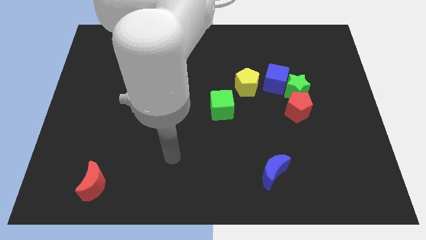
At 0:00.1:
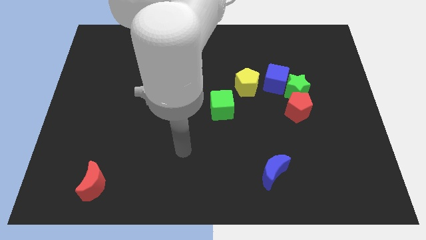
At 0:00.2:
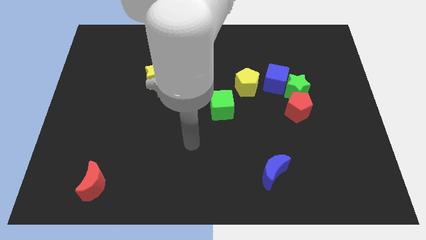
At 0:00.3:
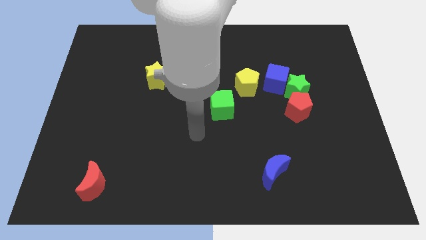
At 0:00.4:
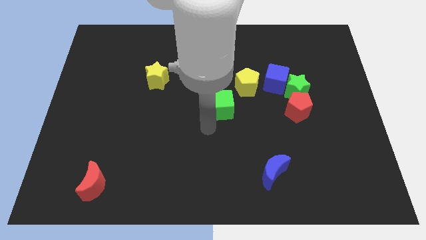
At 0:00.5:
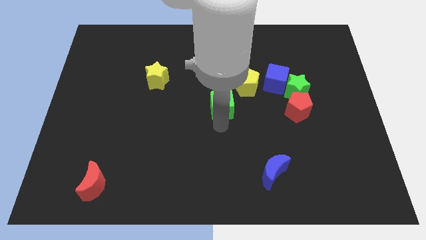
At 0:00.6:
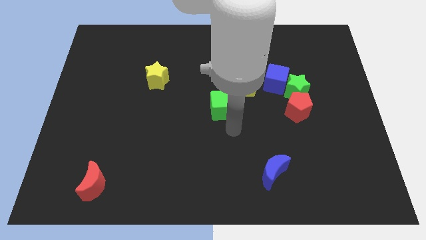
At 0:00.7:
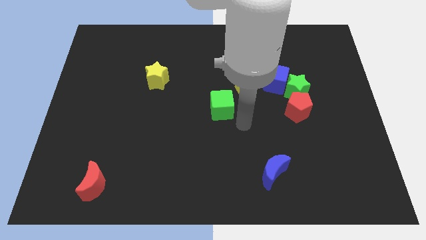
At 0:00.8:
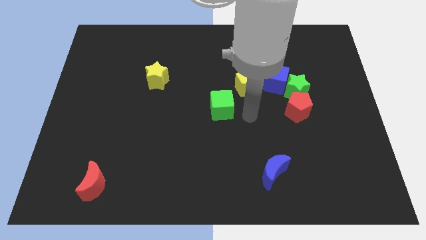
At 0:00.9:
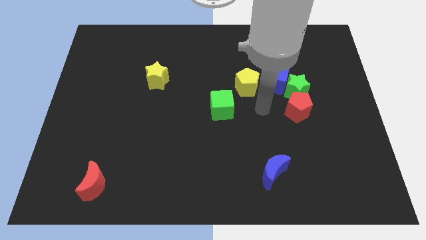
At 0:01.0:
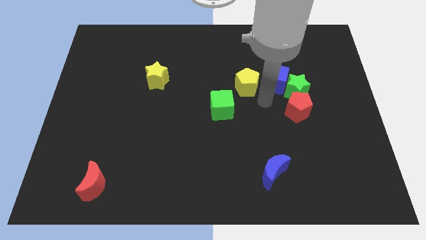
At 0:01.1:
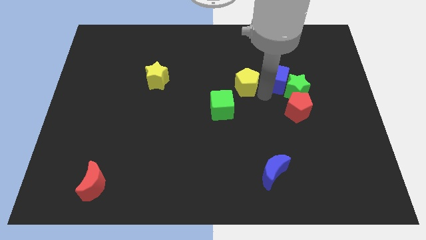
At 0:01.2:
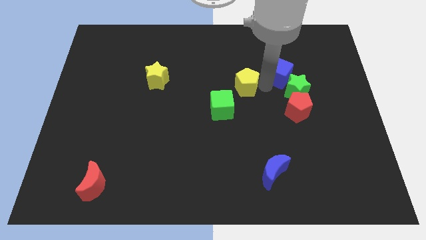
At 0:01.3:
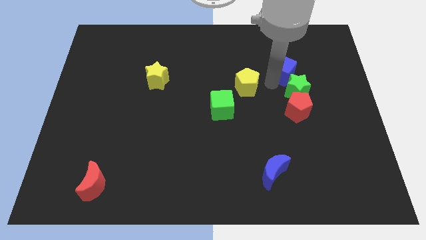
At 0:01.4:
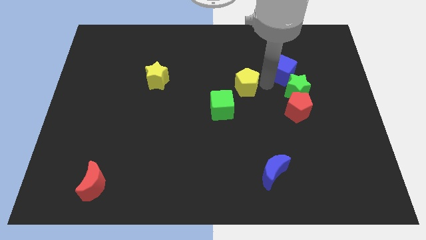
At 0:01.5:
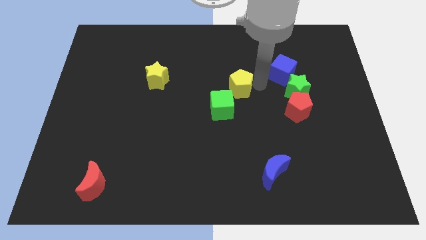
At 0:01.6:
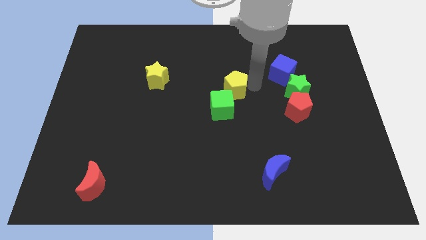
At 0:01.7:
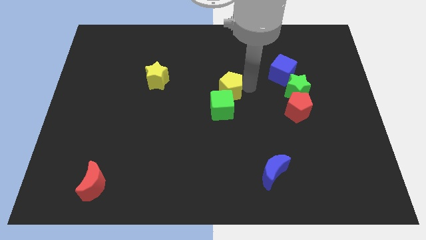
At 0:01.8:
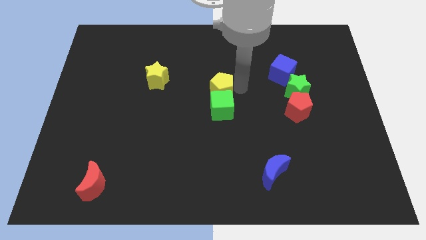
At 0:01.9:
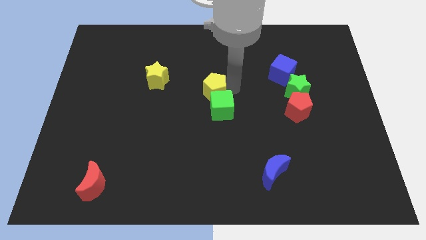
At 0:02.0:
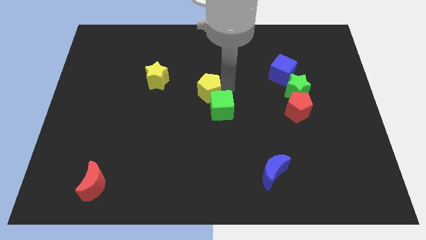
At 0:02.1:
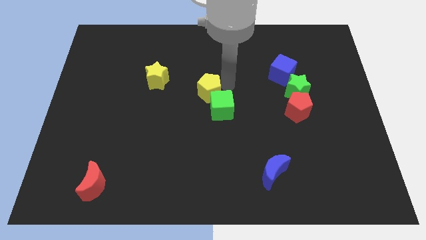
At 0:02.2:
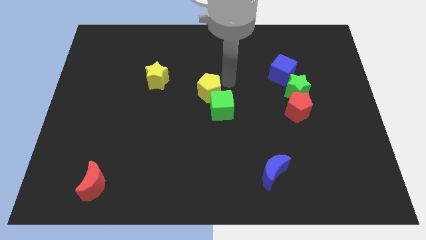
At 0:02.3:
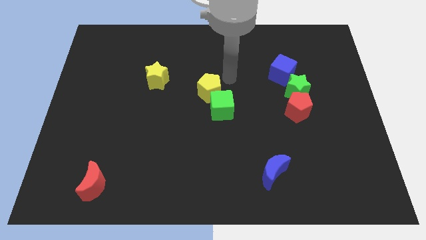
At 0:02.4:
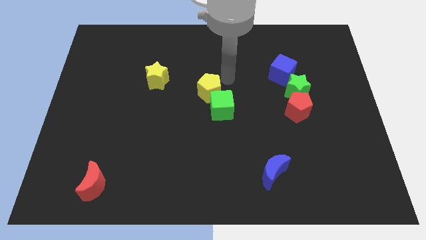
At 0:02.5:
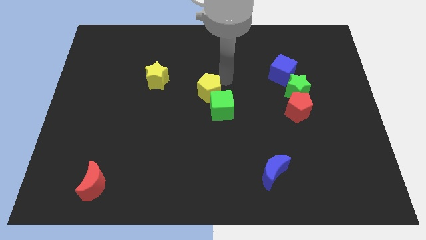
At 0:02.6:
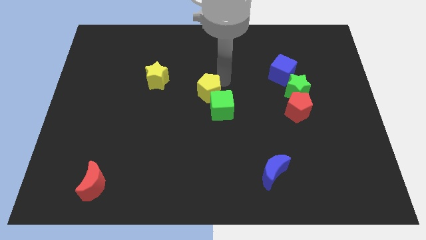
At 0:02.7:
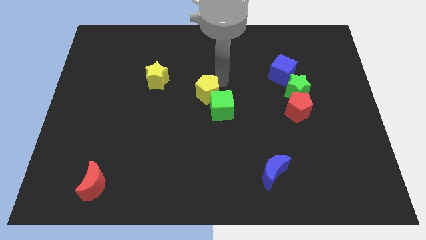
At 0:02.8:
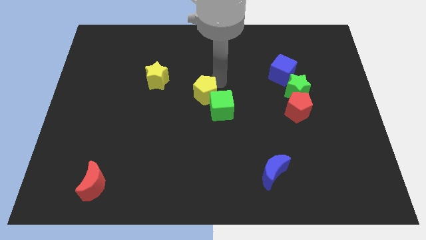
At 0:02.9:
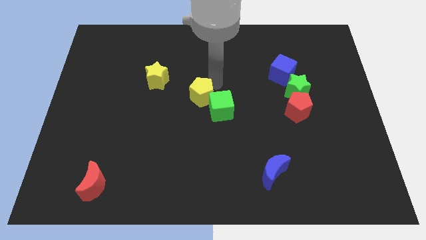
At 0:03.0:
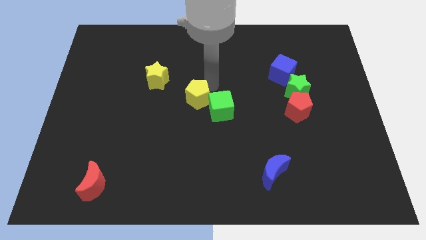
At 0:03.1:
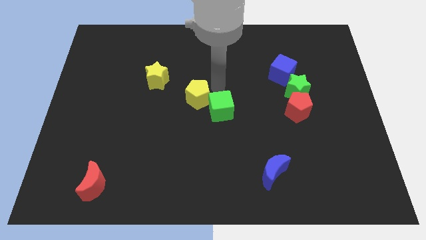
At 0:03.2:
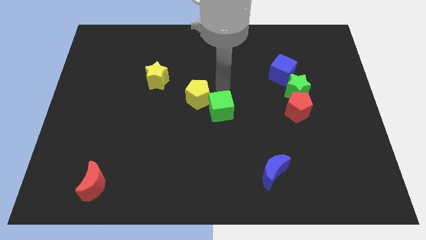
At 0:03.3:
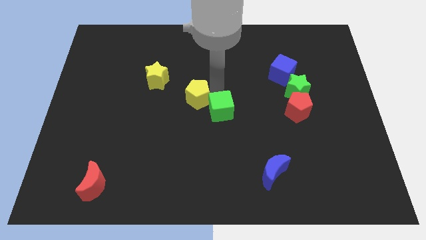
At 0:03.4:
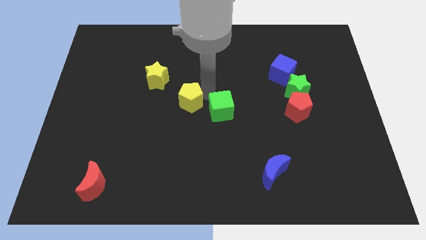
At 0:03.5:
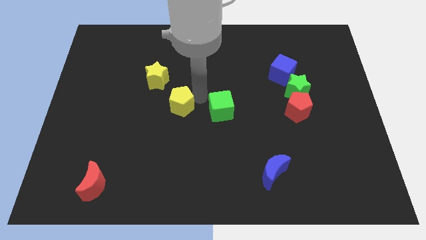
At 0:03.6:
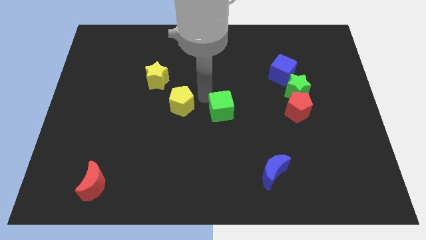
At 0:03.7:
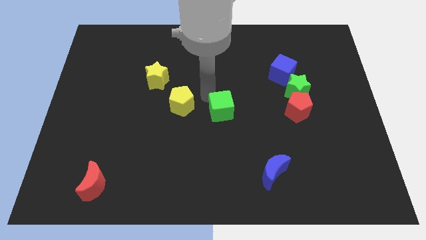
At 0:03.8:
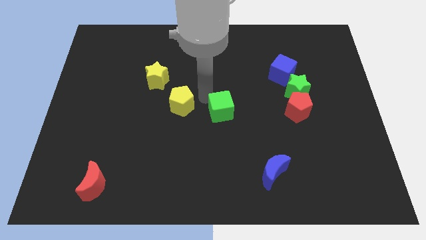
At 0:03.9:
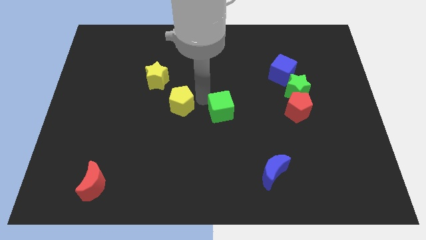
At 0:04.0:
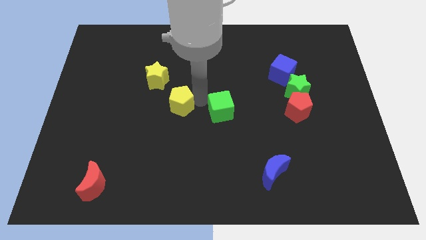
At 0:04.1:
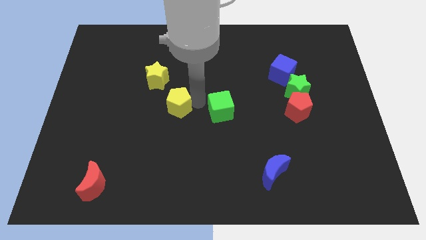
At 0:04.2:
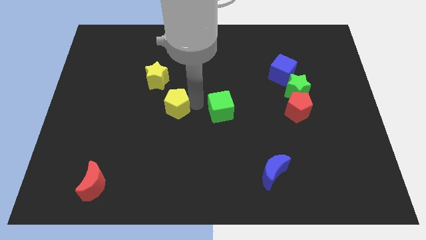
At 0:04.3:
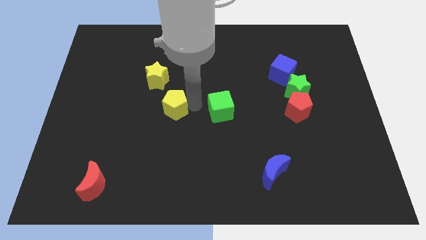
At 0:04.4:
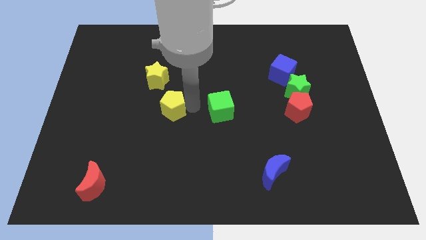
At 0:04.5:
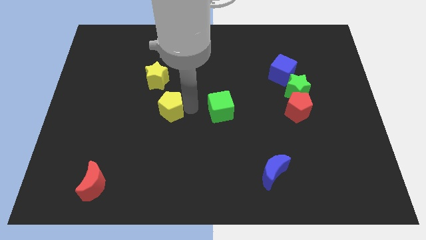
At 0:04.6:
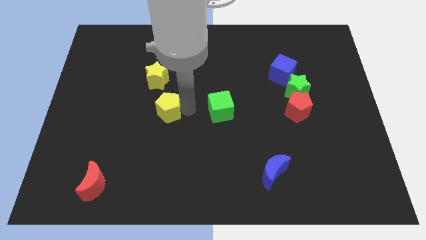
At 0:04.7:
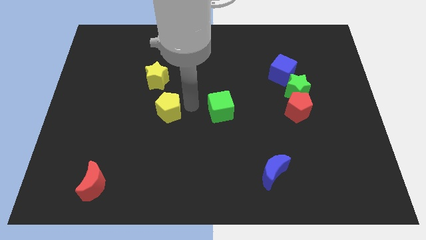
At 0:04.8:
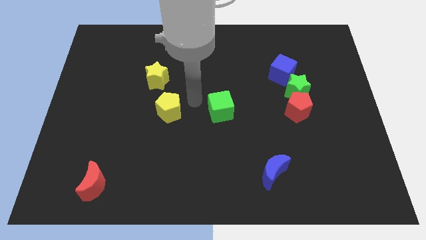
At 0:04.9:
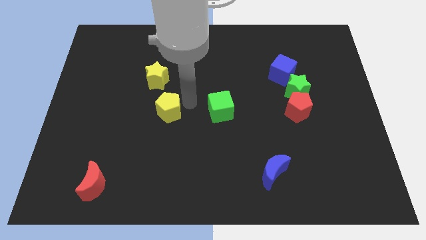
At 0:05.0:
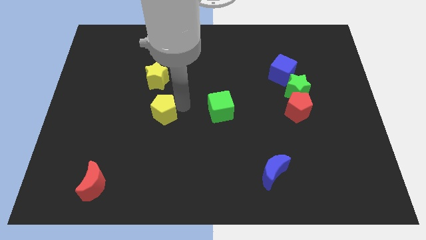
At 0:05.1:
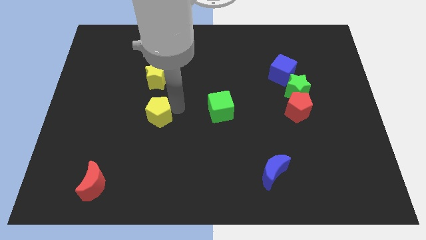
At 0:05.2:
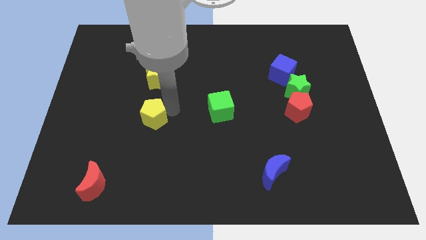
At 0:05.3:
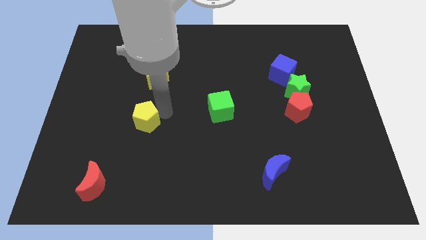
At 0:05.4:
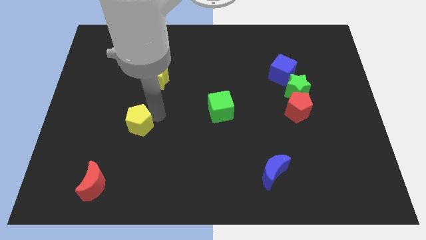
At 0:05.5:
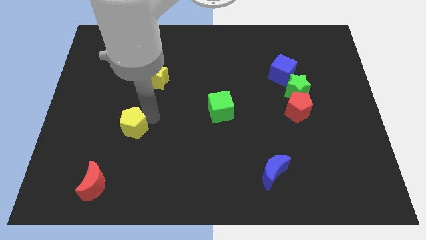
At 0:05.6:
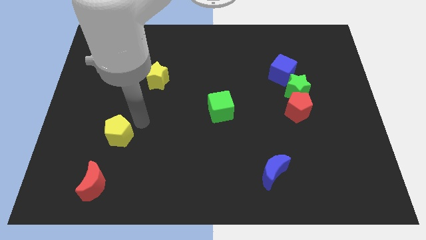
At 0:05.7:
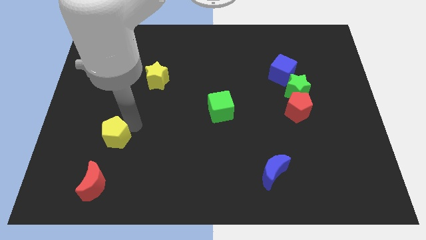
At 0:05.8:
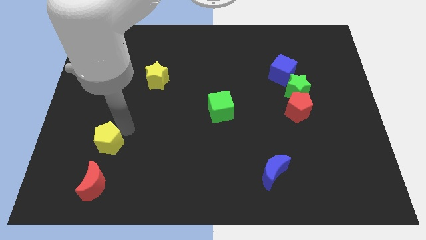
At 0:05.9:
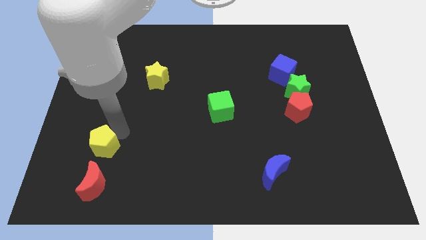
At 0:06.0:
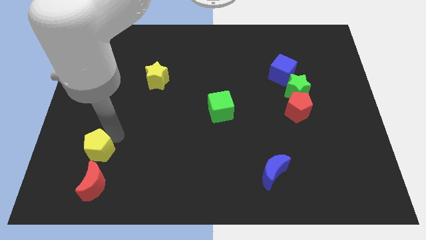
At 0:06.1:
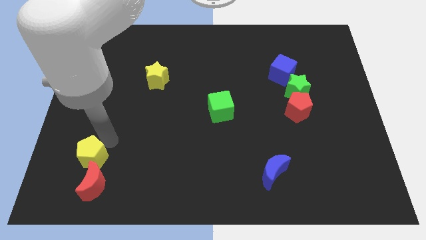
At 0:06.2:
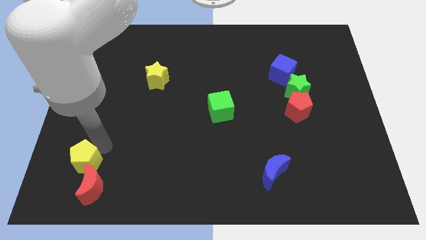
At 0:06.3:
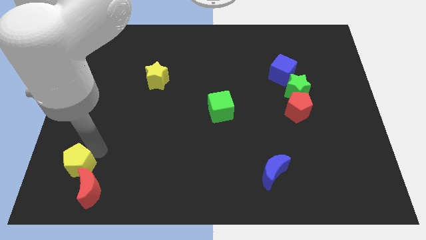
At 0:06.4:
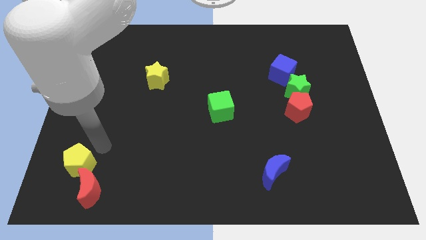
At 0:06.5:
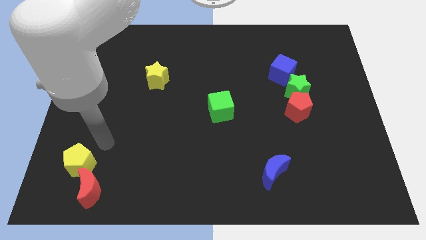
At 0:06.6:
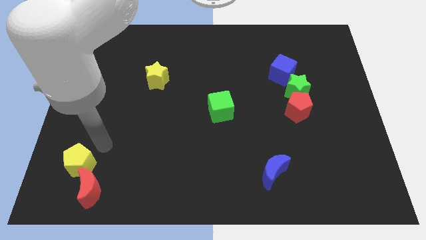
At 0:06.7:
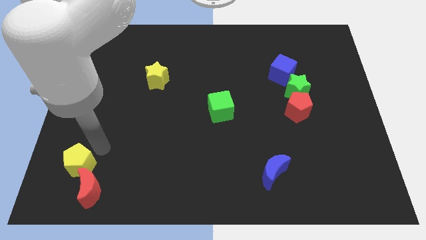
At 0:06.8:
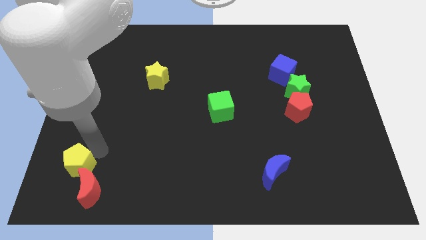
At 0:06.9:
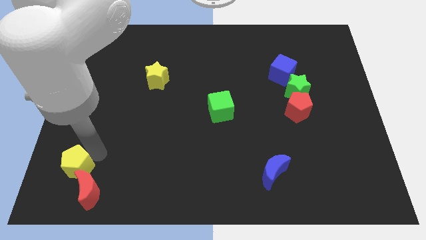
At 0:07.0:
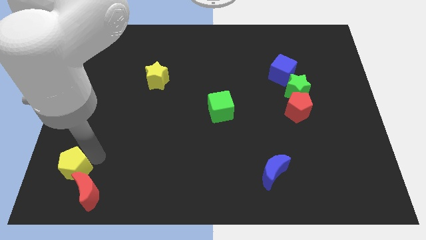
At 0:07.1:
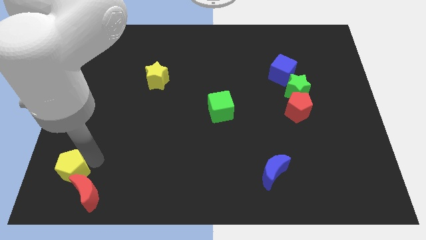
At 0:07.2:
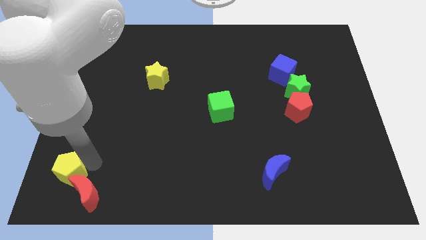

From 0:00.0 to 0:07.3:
slide the yellow pentagon to the bottom left of the board
